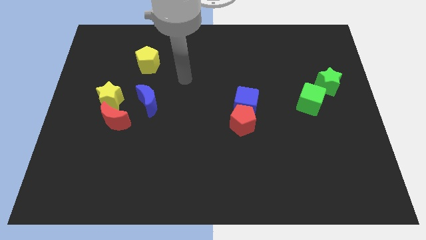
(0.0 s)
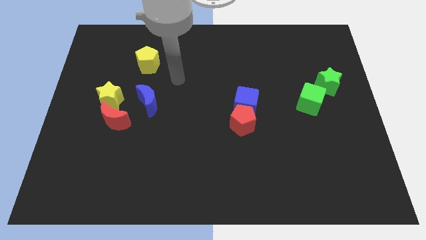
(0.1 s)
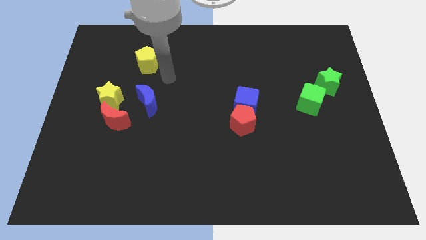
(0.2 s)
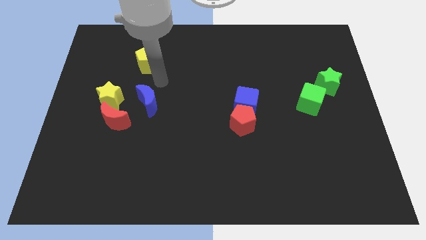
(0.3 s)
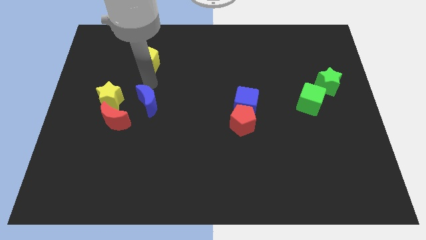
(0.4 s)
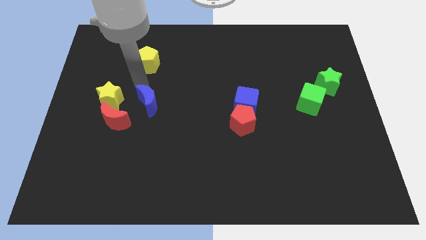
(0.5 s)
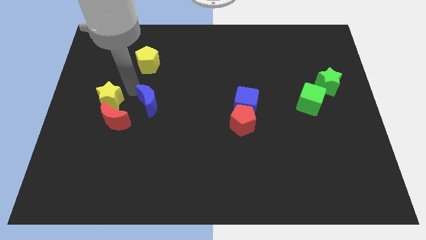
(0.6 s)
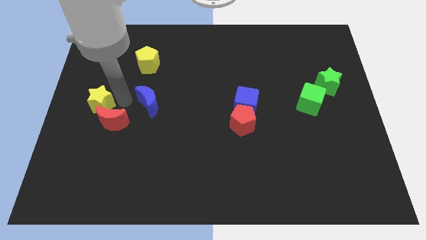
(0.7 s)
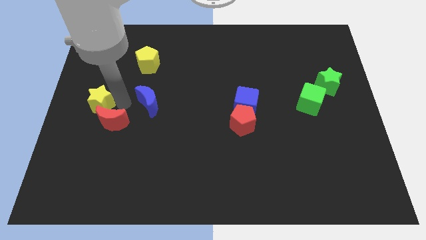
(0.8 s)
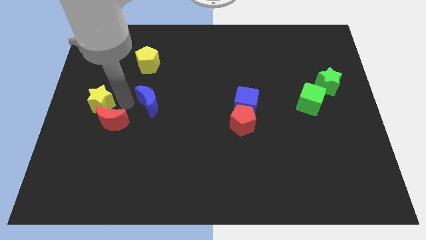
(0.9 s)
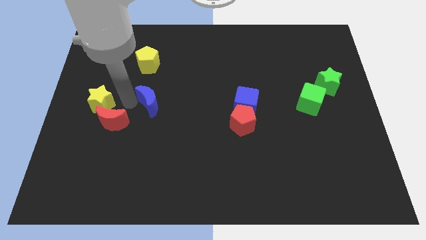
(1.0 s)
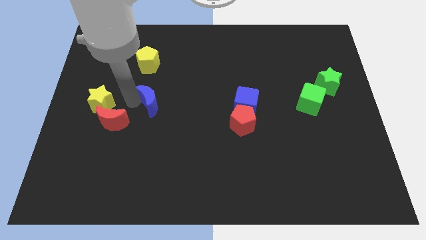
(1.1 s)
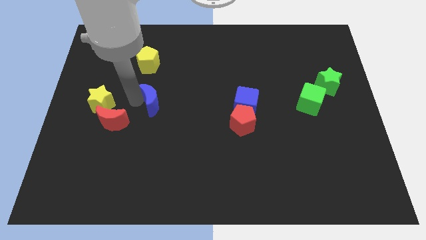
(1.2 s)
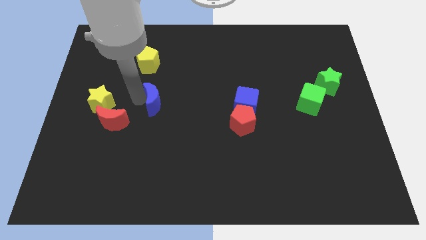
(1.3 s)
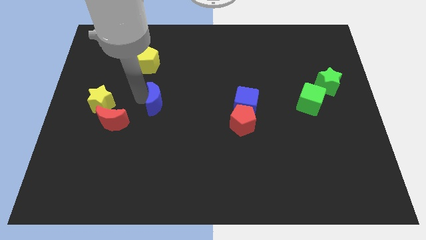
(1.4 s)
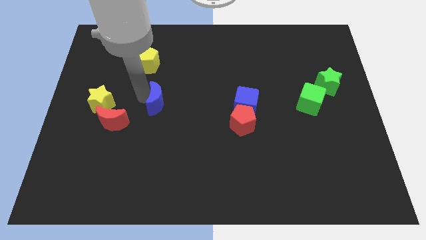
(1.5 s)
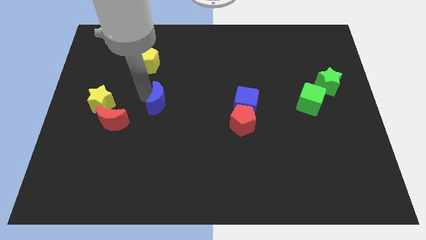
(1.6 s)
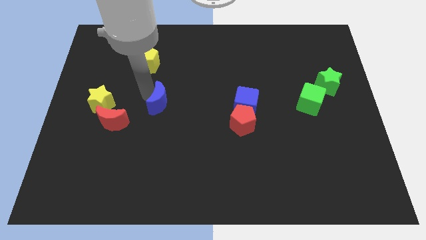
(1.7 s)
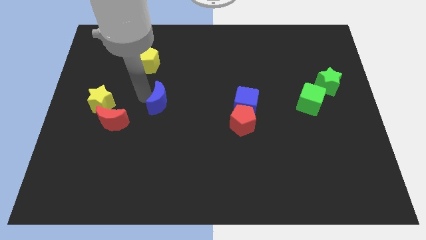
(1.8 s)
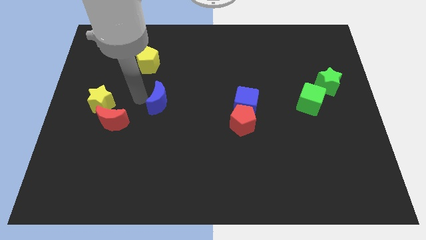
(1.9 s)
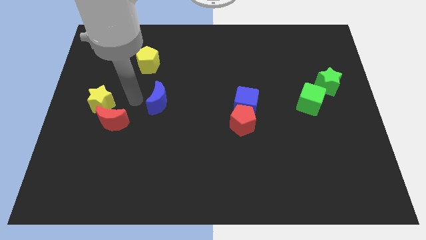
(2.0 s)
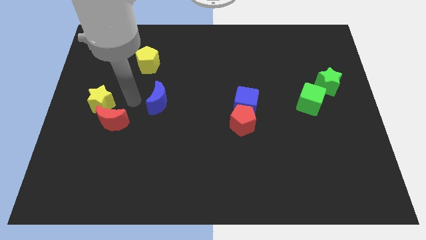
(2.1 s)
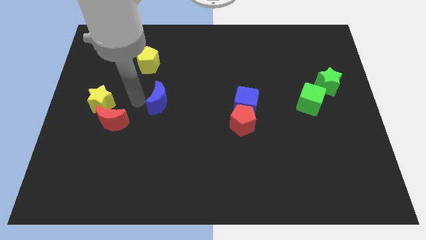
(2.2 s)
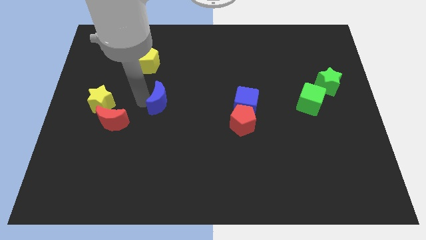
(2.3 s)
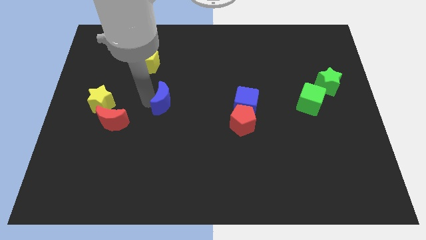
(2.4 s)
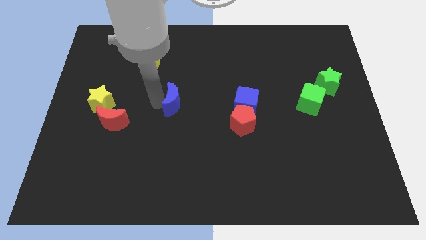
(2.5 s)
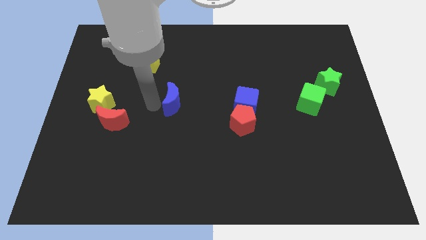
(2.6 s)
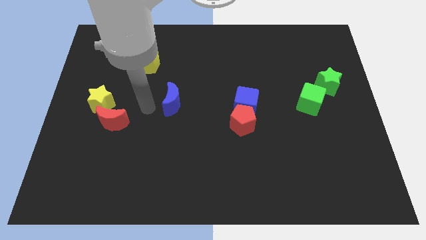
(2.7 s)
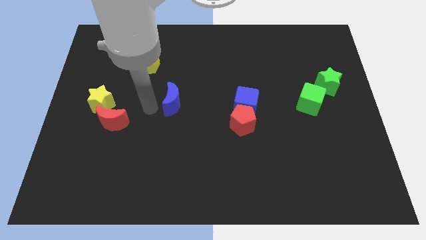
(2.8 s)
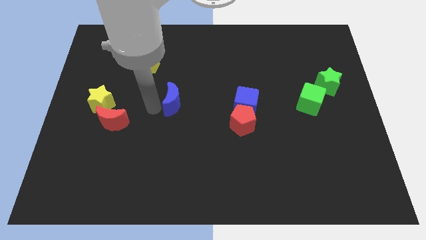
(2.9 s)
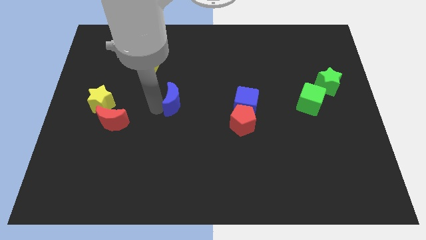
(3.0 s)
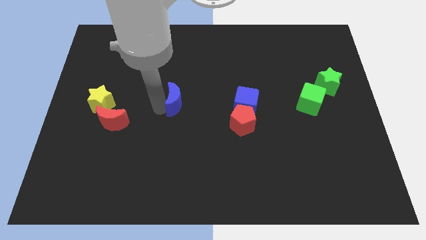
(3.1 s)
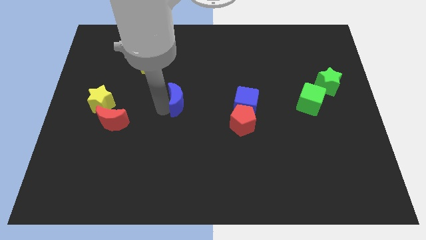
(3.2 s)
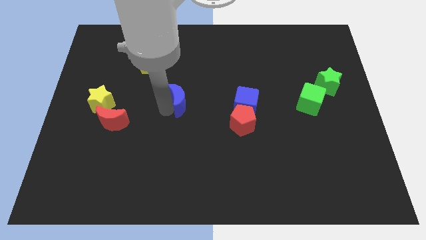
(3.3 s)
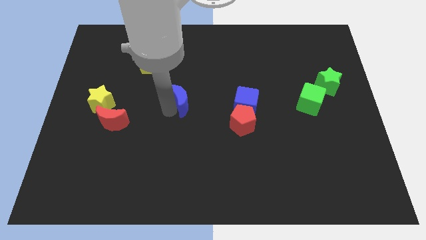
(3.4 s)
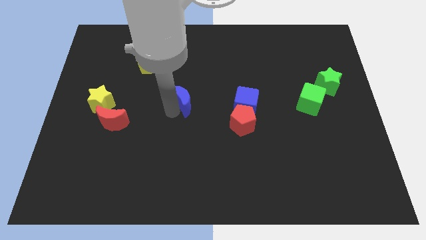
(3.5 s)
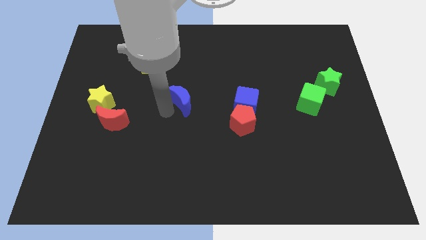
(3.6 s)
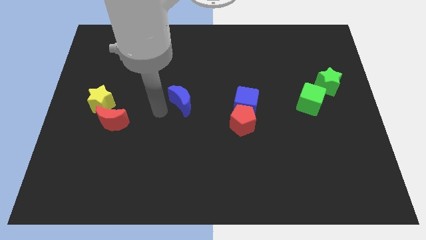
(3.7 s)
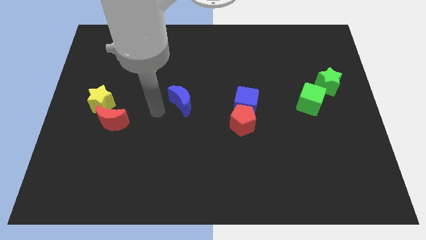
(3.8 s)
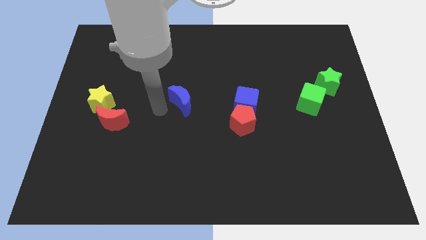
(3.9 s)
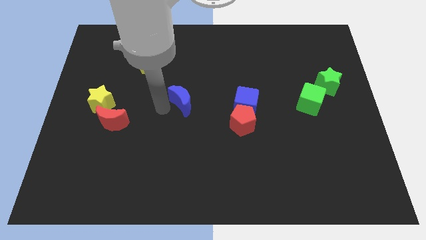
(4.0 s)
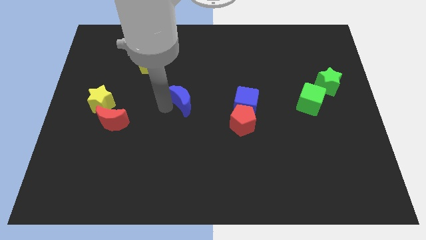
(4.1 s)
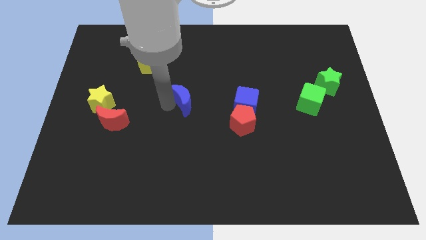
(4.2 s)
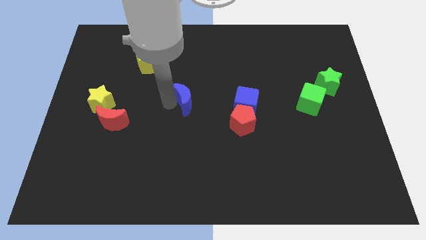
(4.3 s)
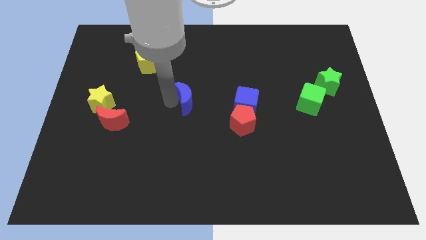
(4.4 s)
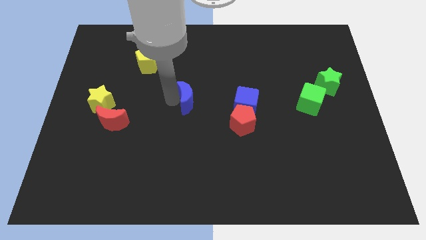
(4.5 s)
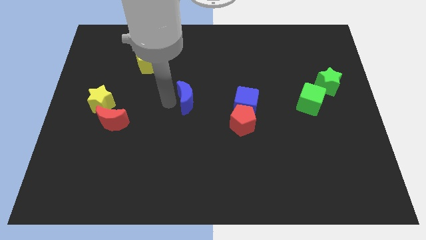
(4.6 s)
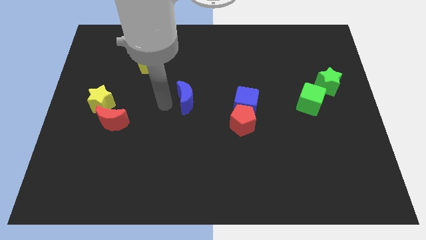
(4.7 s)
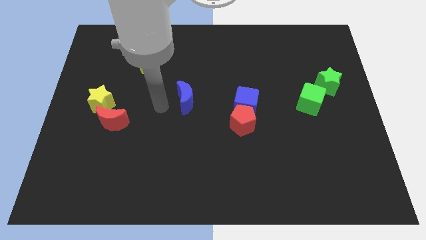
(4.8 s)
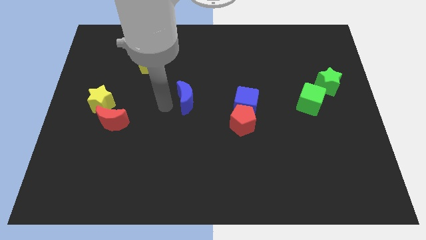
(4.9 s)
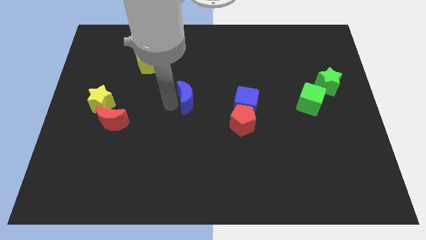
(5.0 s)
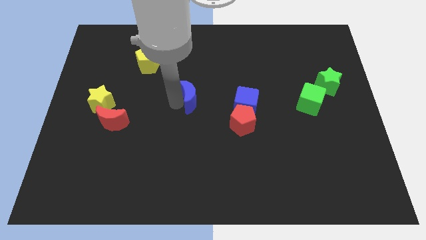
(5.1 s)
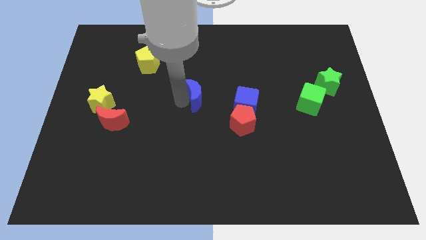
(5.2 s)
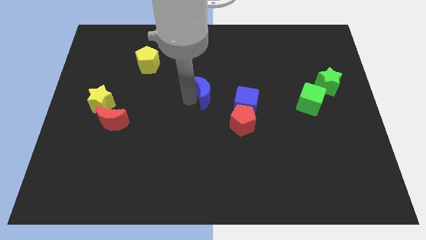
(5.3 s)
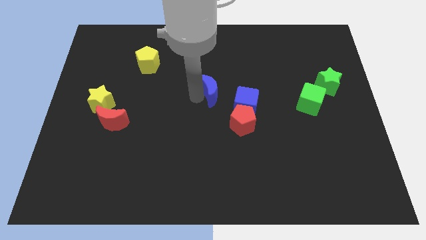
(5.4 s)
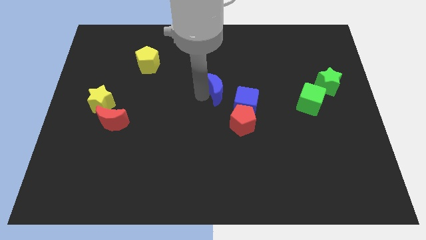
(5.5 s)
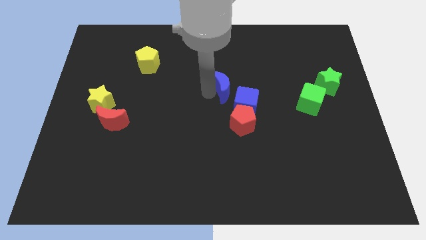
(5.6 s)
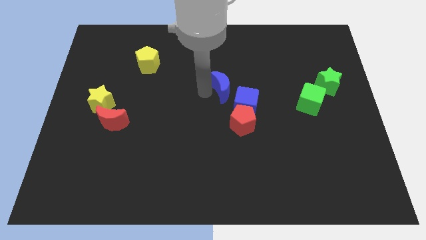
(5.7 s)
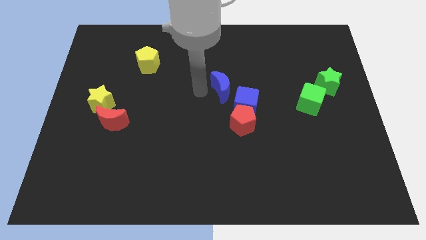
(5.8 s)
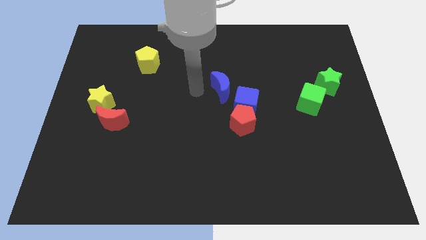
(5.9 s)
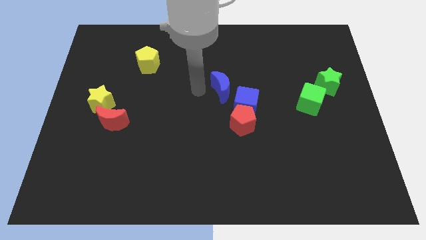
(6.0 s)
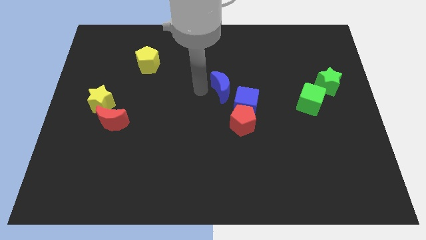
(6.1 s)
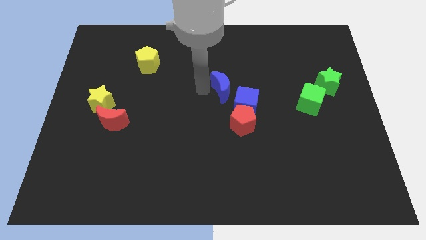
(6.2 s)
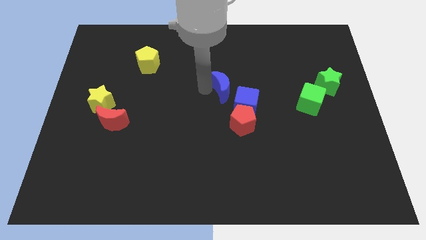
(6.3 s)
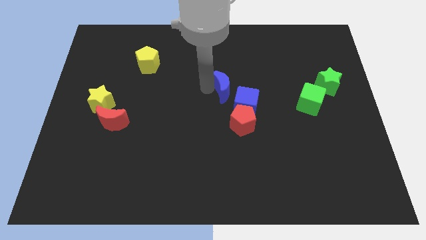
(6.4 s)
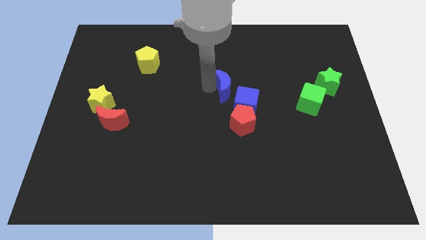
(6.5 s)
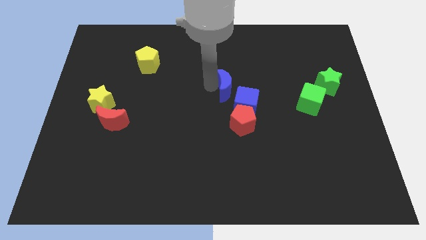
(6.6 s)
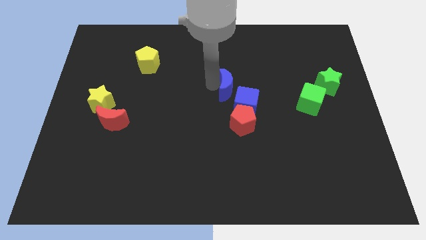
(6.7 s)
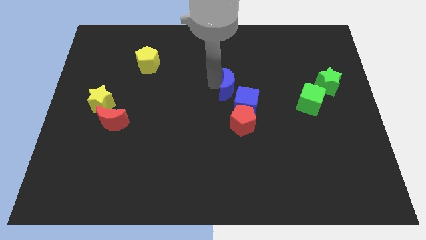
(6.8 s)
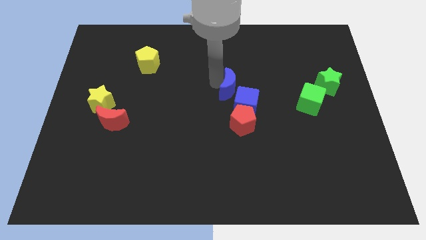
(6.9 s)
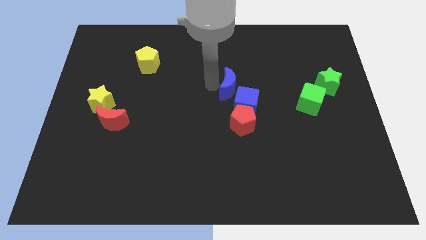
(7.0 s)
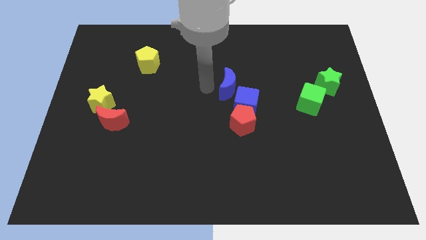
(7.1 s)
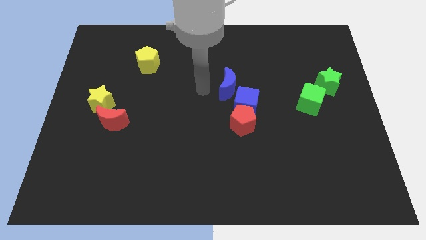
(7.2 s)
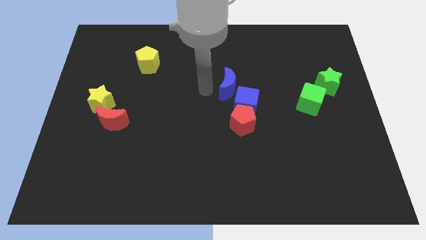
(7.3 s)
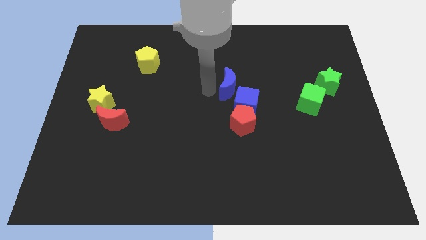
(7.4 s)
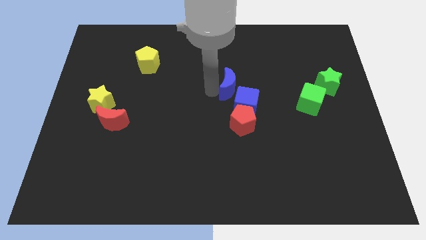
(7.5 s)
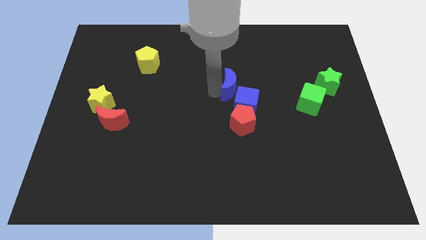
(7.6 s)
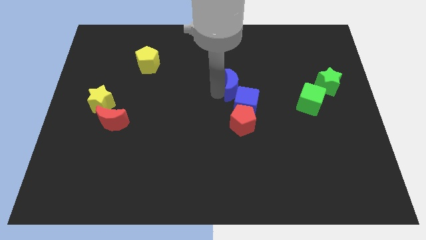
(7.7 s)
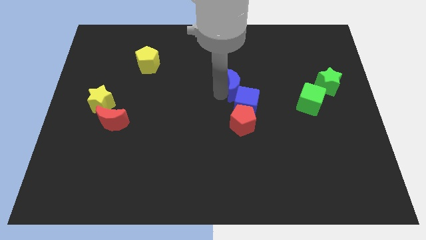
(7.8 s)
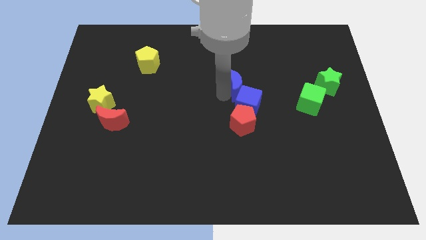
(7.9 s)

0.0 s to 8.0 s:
slide the blue moon to the right

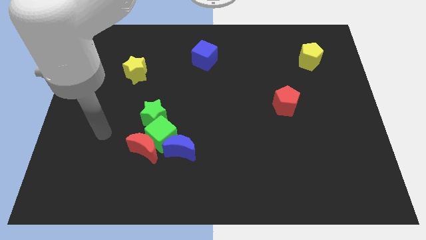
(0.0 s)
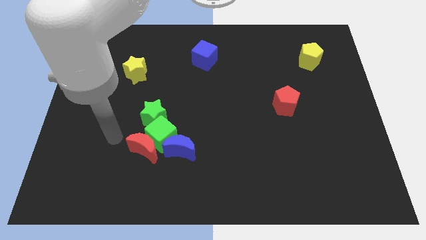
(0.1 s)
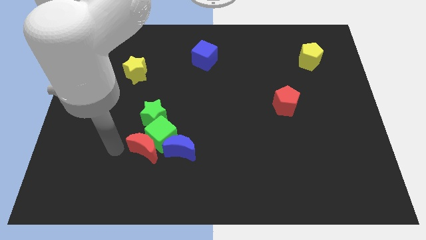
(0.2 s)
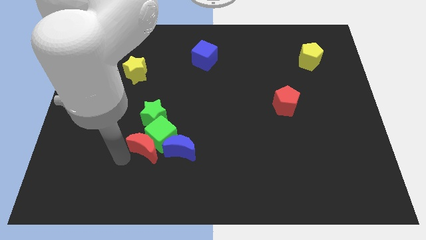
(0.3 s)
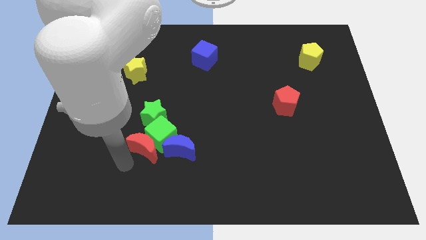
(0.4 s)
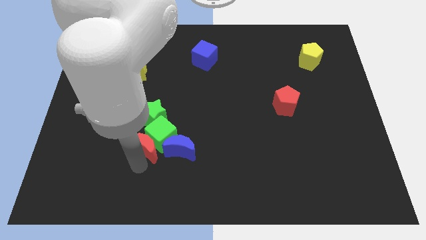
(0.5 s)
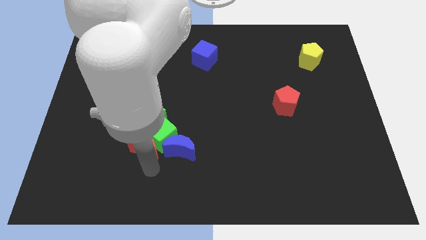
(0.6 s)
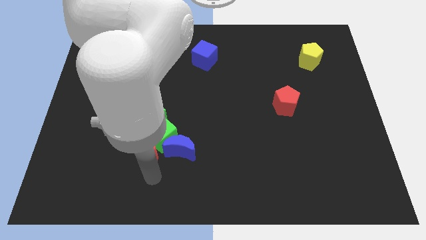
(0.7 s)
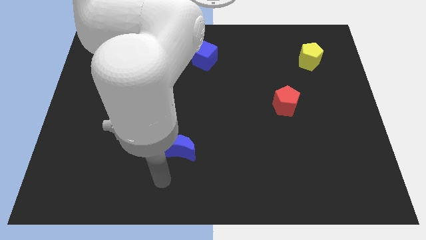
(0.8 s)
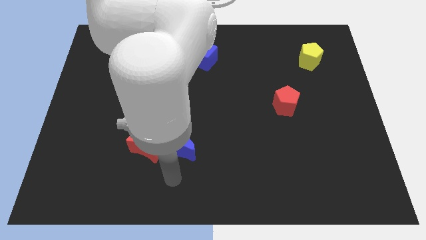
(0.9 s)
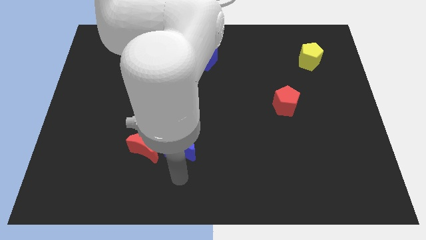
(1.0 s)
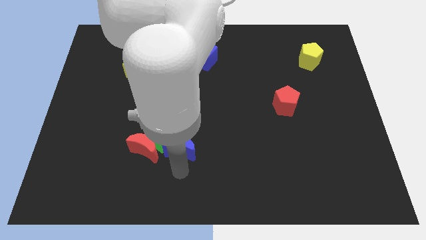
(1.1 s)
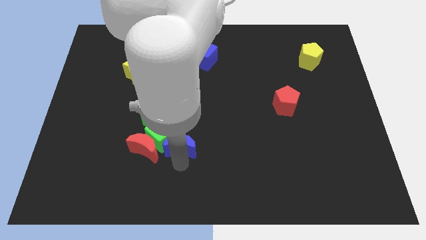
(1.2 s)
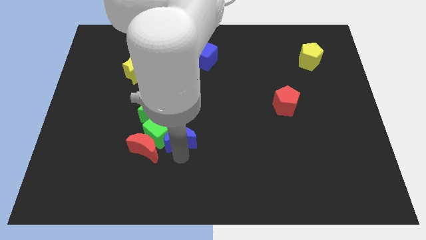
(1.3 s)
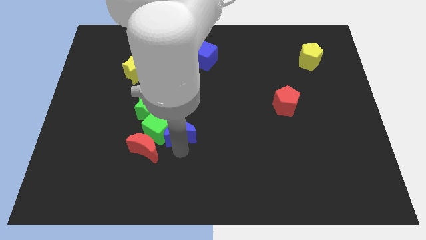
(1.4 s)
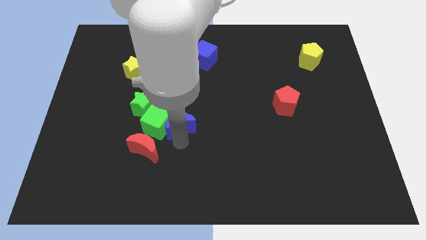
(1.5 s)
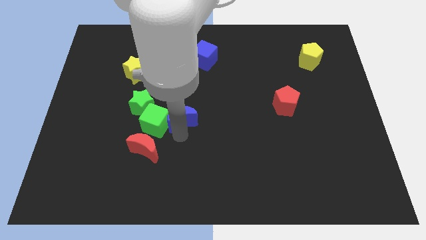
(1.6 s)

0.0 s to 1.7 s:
move the blue moon up slightly
